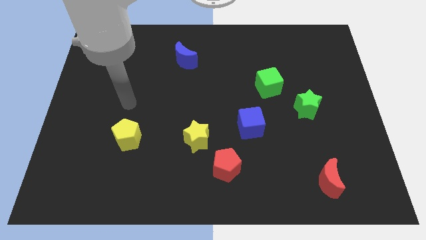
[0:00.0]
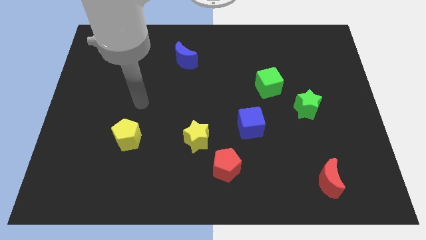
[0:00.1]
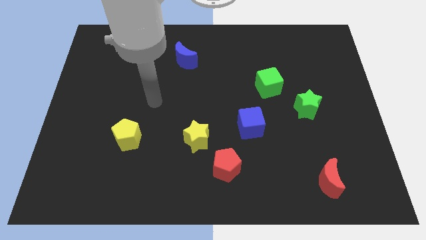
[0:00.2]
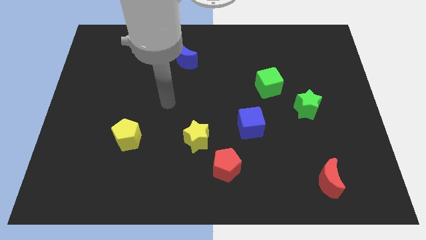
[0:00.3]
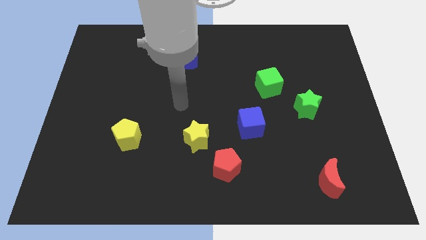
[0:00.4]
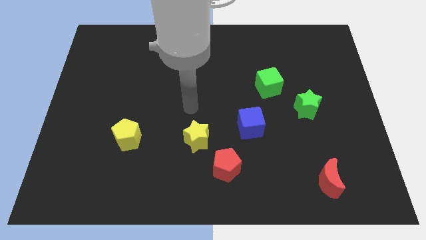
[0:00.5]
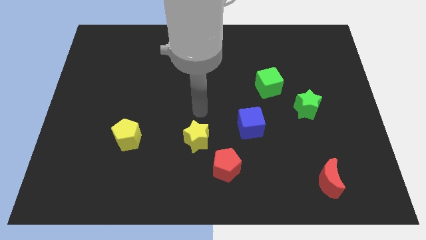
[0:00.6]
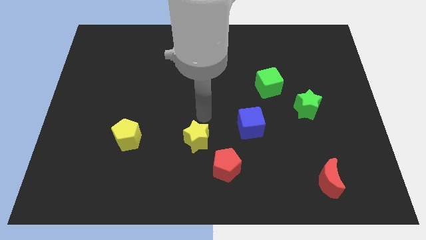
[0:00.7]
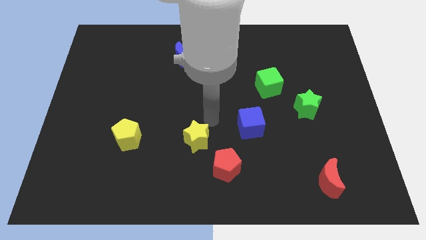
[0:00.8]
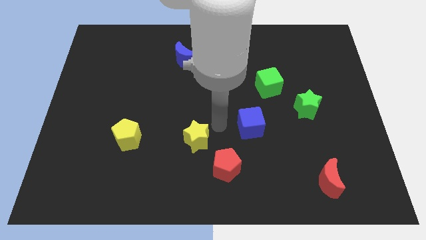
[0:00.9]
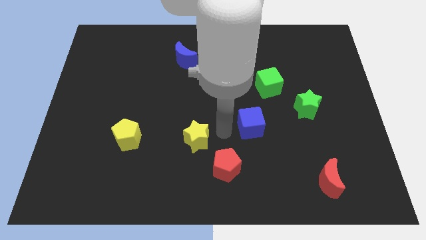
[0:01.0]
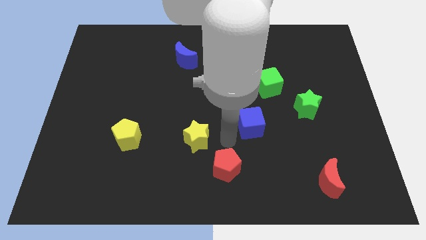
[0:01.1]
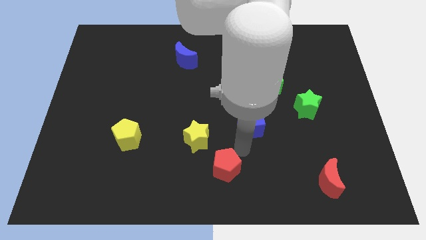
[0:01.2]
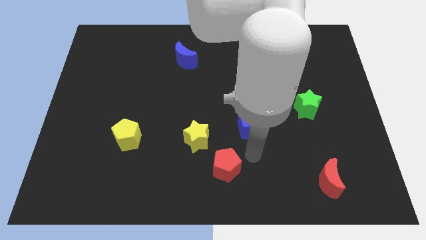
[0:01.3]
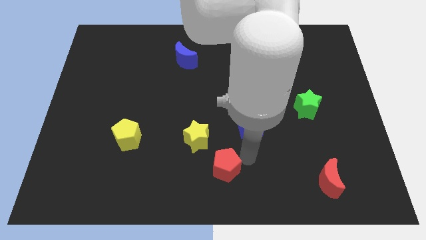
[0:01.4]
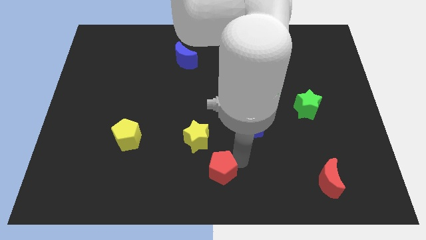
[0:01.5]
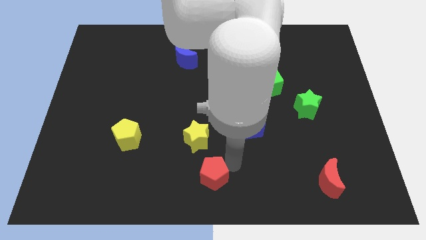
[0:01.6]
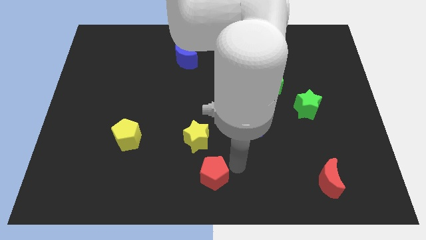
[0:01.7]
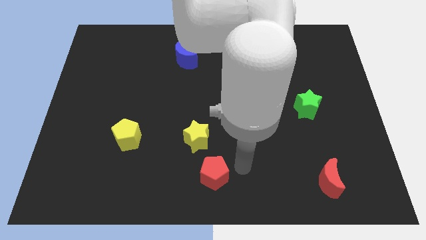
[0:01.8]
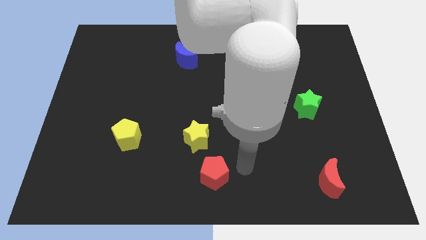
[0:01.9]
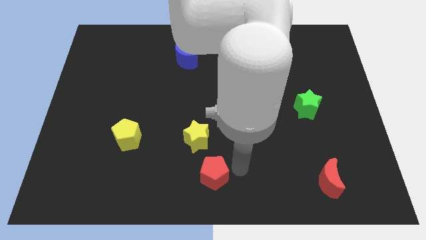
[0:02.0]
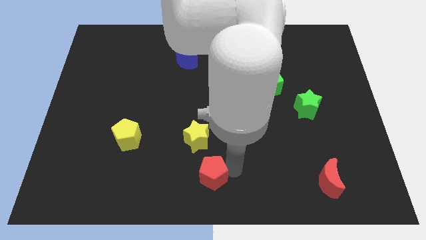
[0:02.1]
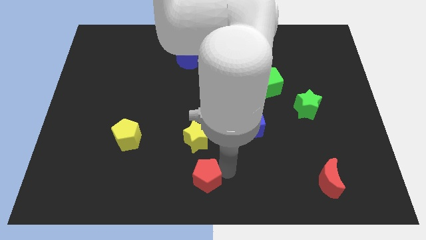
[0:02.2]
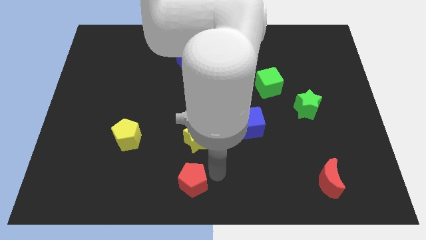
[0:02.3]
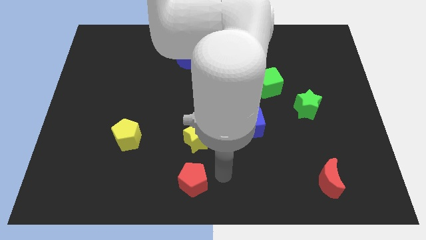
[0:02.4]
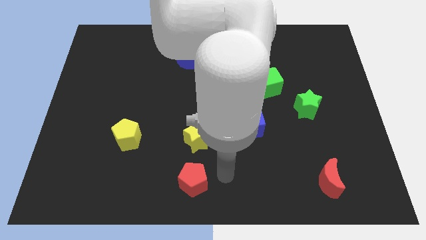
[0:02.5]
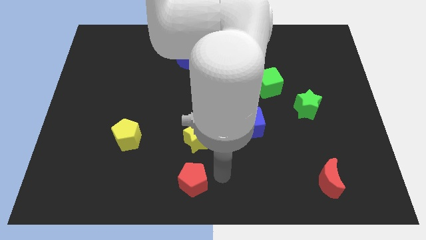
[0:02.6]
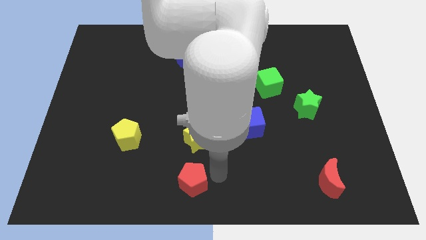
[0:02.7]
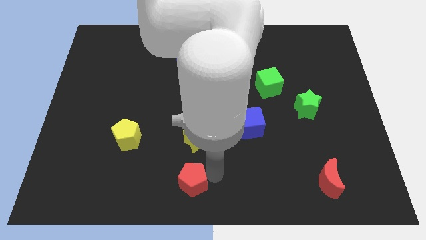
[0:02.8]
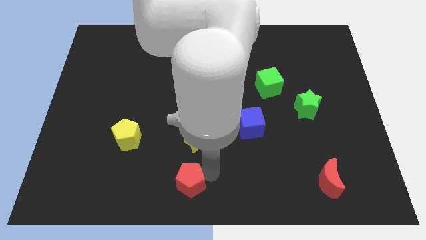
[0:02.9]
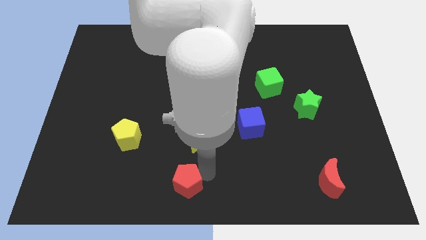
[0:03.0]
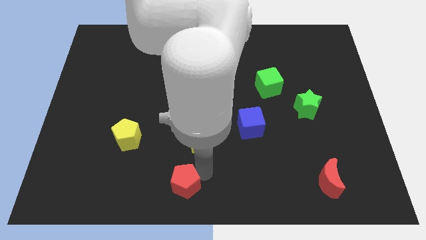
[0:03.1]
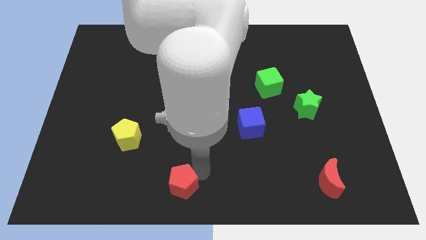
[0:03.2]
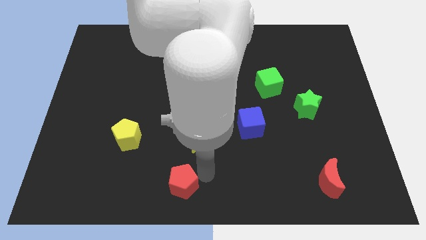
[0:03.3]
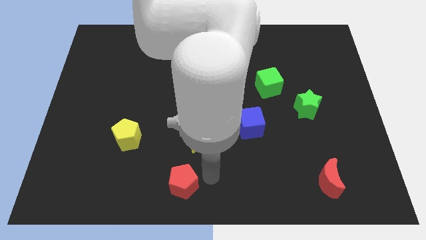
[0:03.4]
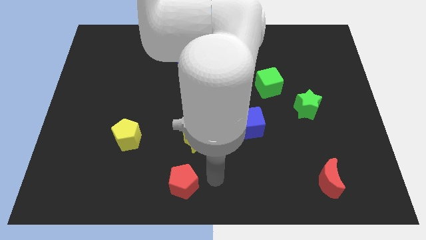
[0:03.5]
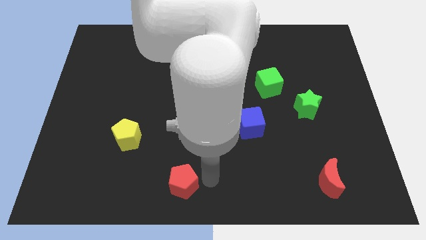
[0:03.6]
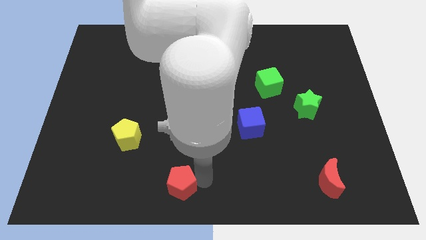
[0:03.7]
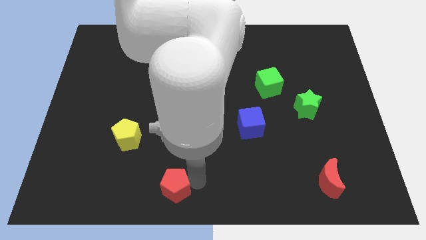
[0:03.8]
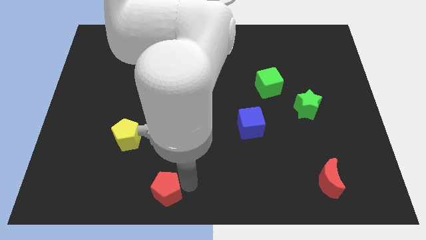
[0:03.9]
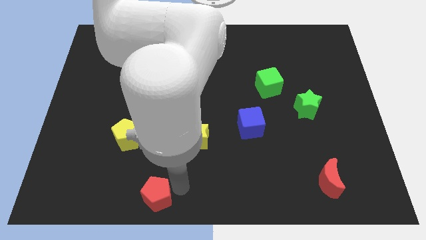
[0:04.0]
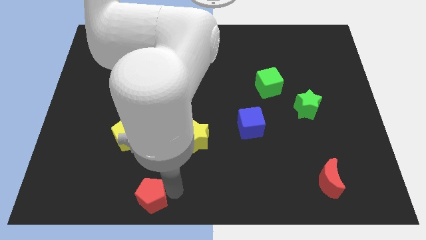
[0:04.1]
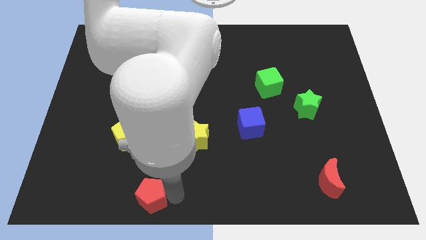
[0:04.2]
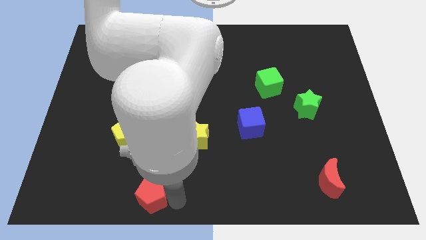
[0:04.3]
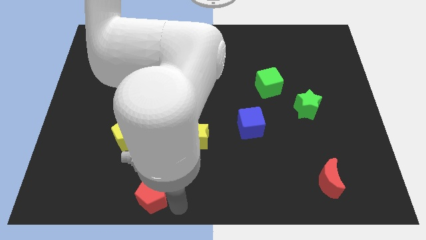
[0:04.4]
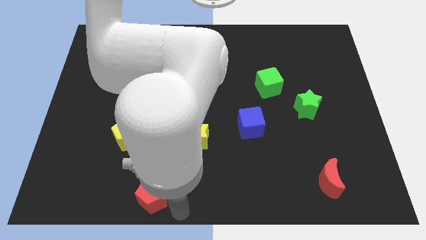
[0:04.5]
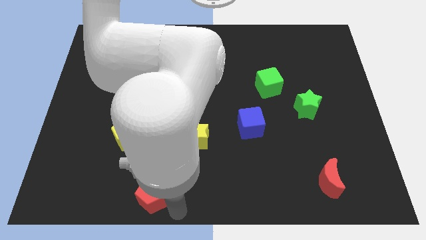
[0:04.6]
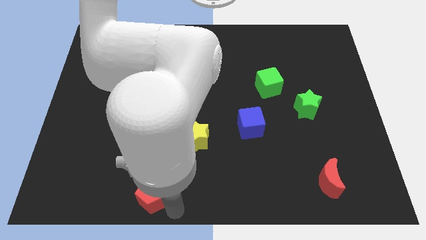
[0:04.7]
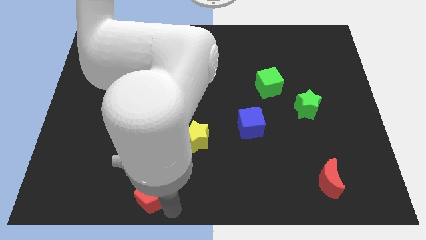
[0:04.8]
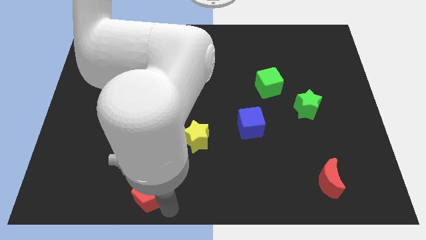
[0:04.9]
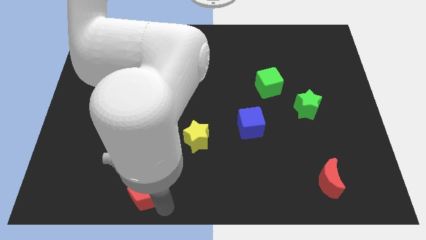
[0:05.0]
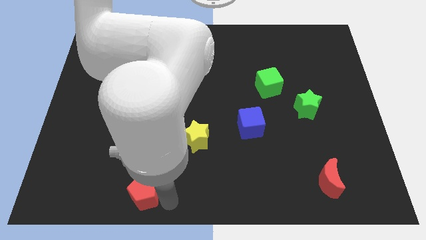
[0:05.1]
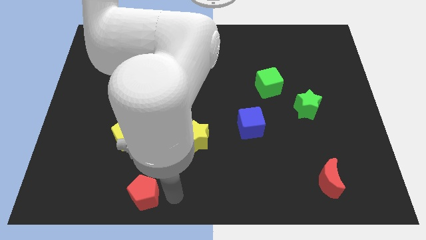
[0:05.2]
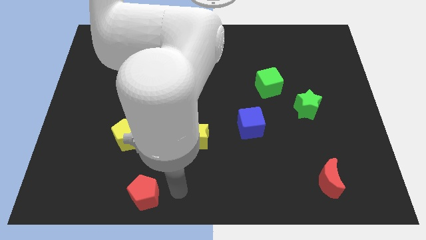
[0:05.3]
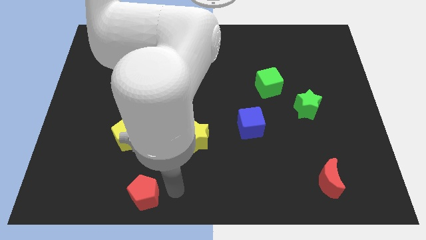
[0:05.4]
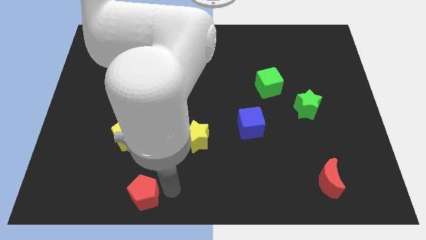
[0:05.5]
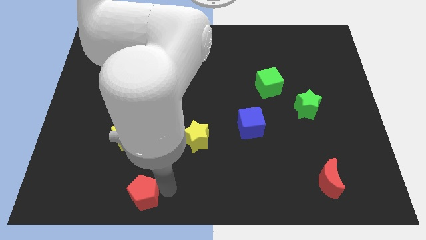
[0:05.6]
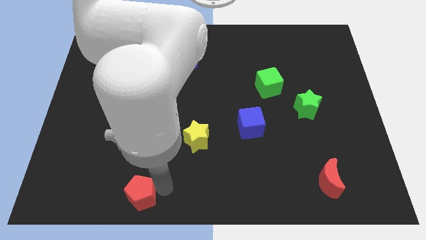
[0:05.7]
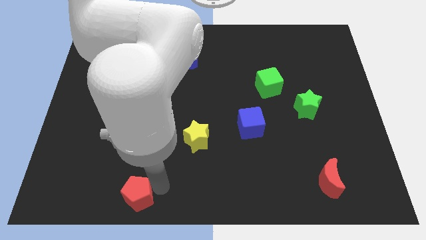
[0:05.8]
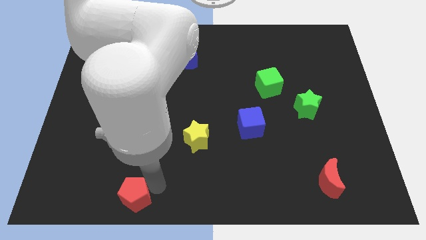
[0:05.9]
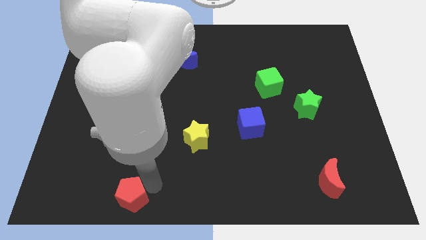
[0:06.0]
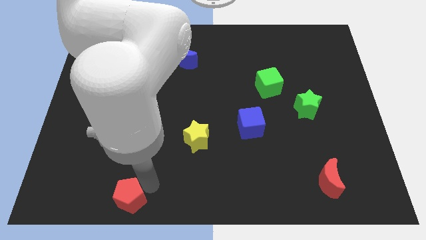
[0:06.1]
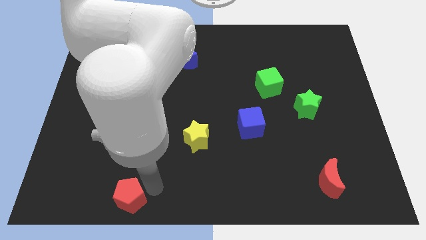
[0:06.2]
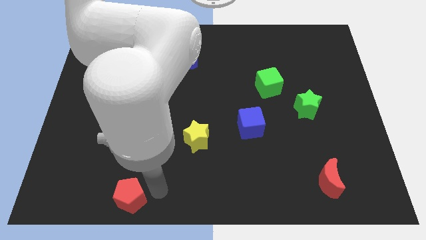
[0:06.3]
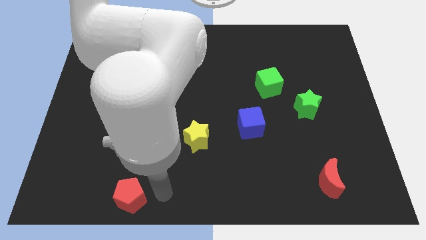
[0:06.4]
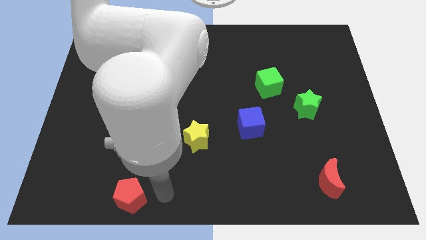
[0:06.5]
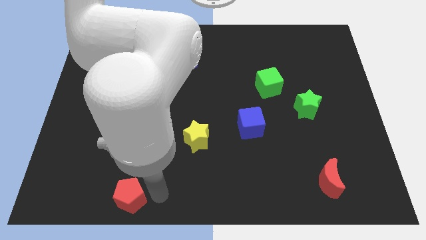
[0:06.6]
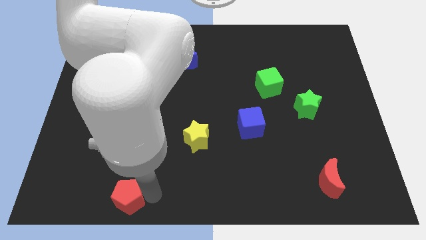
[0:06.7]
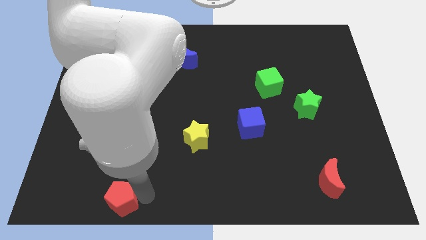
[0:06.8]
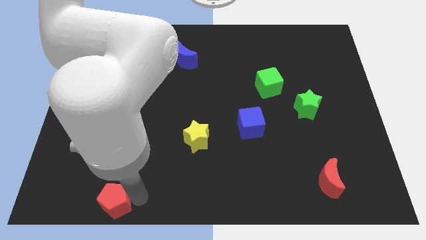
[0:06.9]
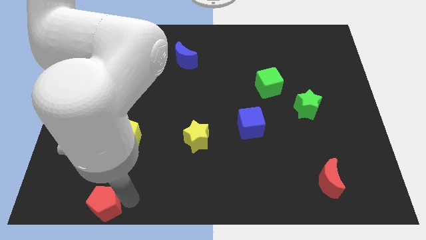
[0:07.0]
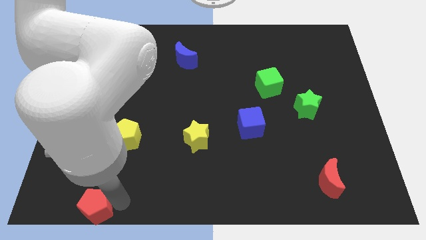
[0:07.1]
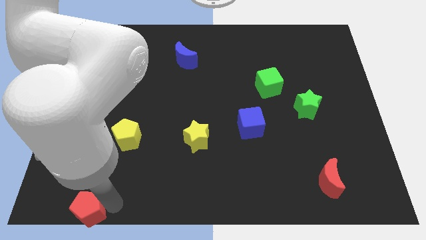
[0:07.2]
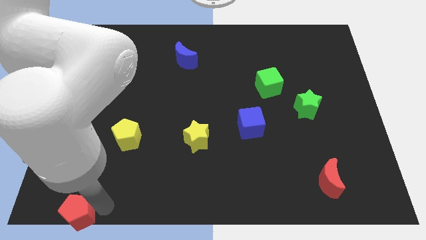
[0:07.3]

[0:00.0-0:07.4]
move the red pentagon to the lower left corner
